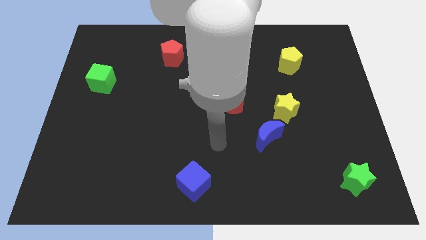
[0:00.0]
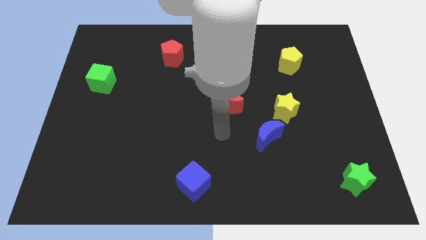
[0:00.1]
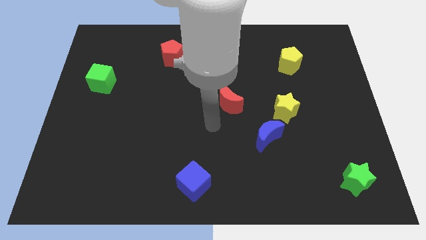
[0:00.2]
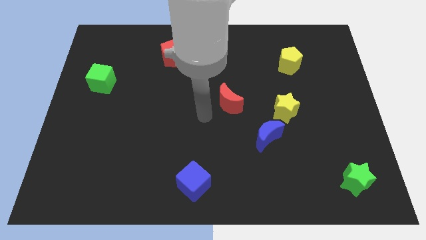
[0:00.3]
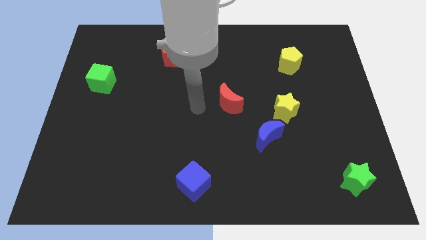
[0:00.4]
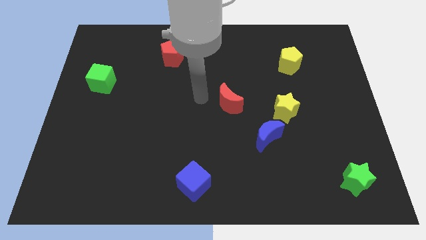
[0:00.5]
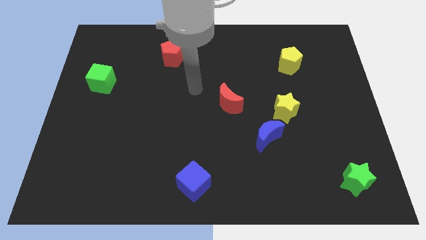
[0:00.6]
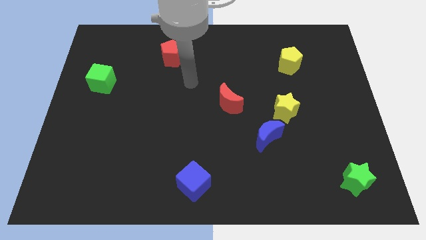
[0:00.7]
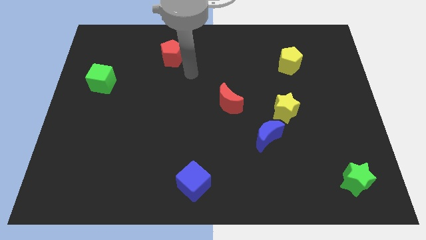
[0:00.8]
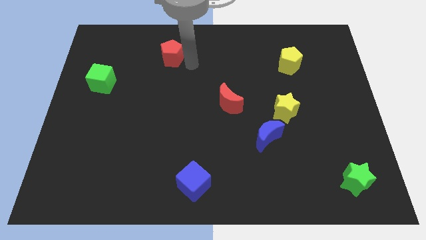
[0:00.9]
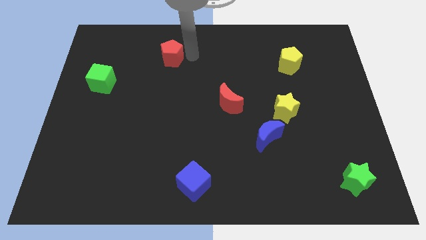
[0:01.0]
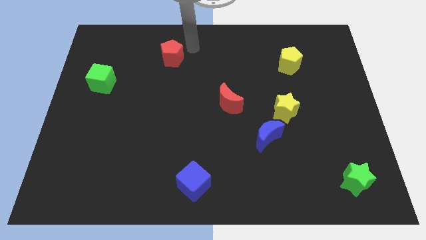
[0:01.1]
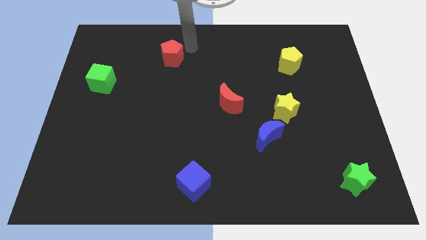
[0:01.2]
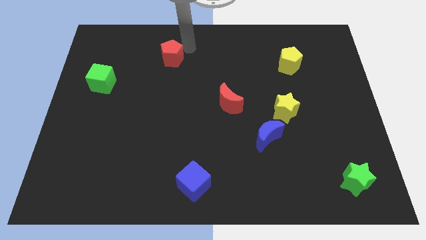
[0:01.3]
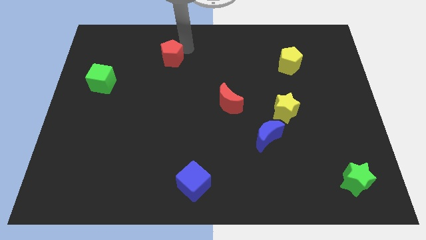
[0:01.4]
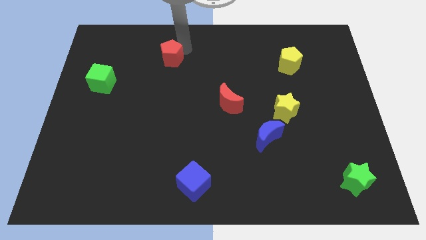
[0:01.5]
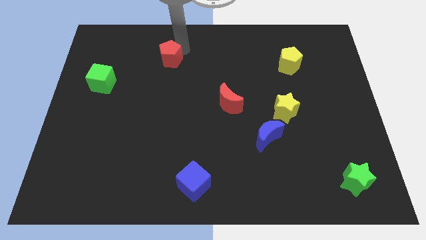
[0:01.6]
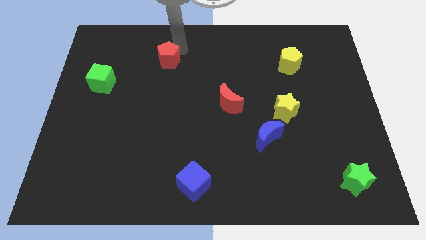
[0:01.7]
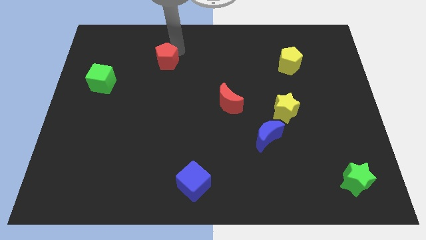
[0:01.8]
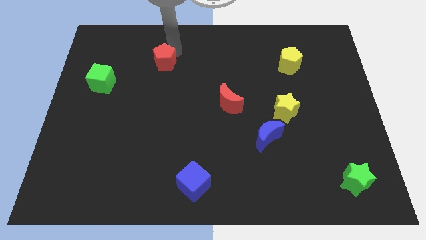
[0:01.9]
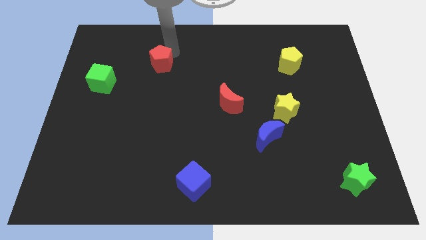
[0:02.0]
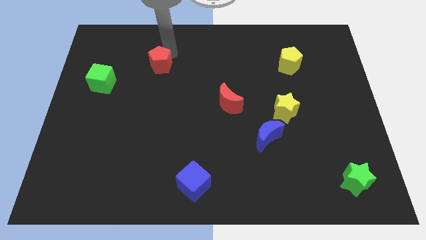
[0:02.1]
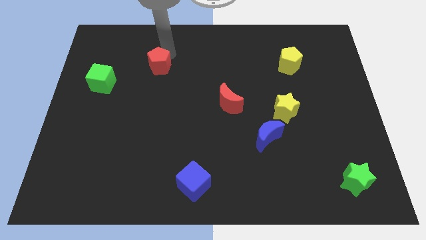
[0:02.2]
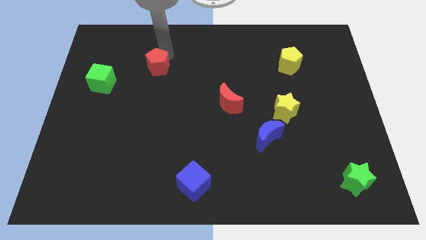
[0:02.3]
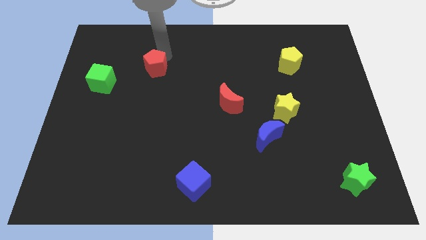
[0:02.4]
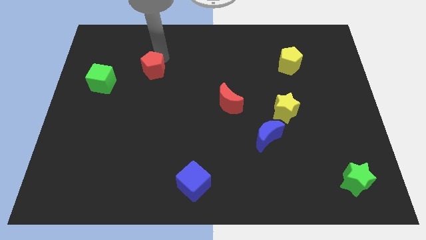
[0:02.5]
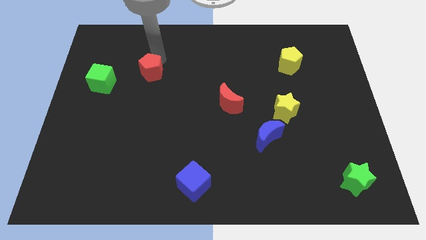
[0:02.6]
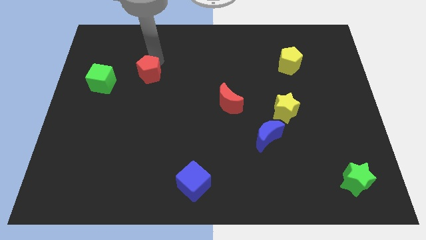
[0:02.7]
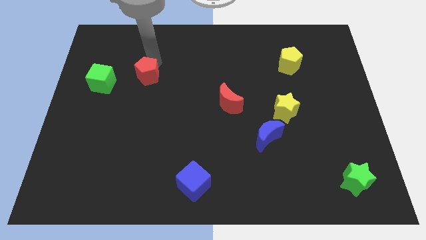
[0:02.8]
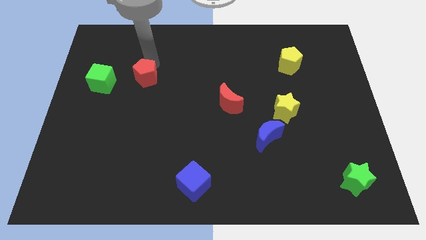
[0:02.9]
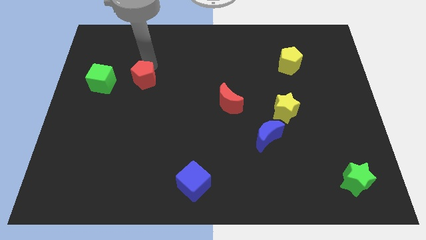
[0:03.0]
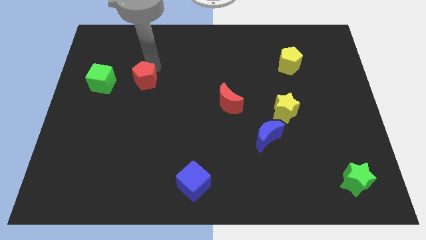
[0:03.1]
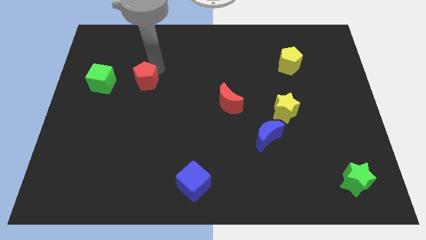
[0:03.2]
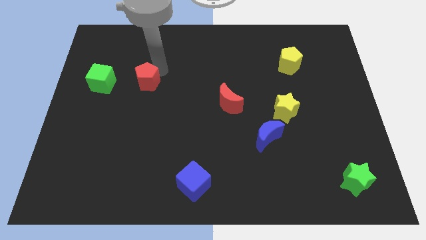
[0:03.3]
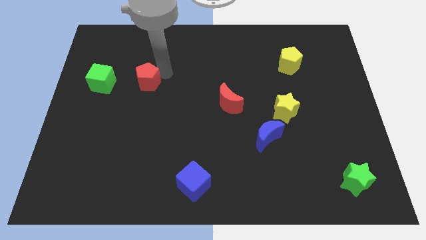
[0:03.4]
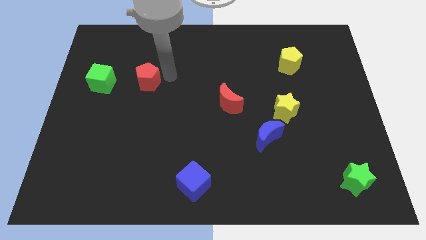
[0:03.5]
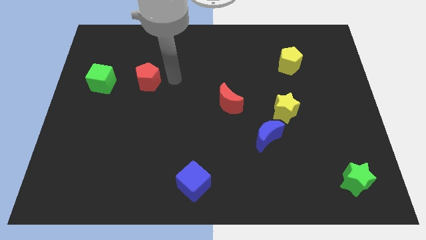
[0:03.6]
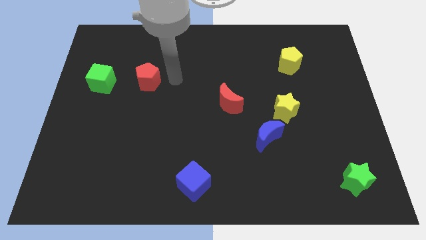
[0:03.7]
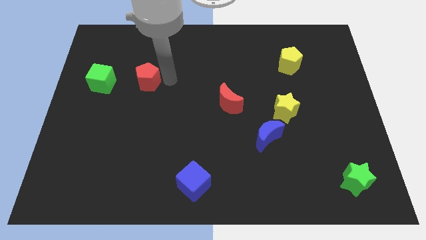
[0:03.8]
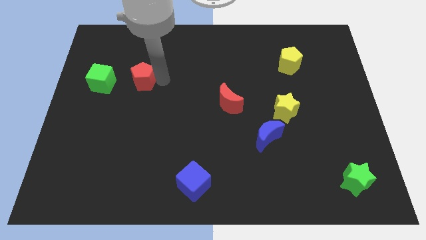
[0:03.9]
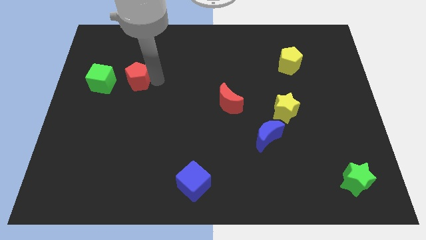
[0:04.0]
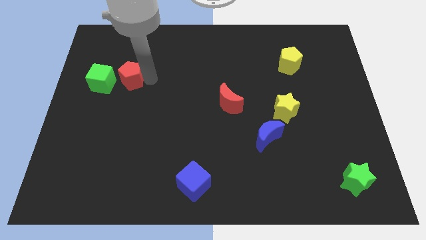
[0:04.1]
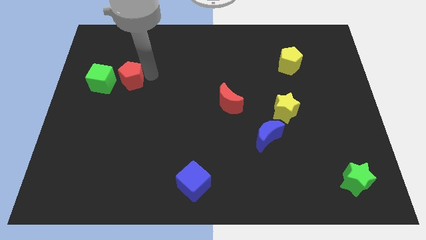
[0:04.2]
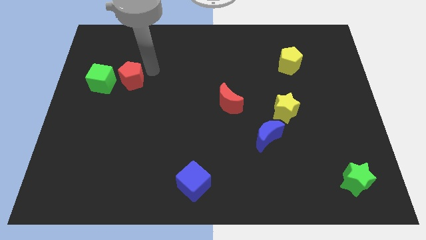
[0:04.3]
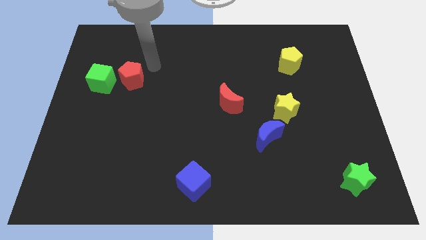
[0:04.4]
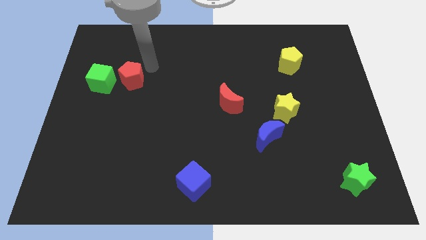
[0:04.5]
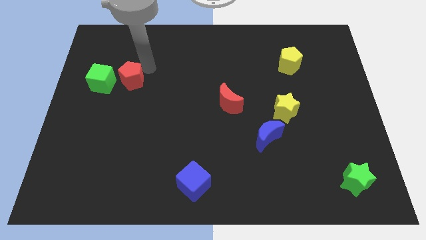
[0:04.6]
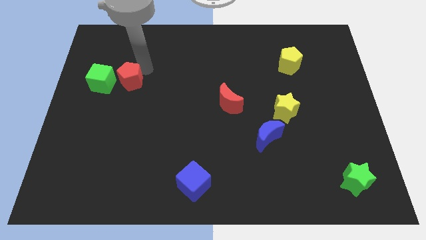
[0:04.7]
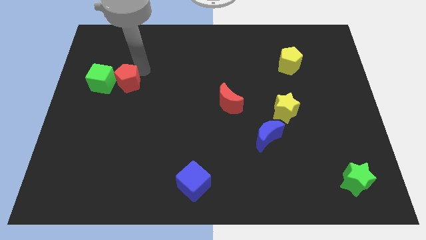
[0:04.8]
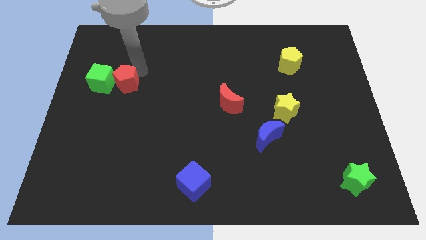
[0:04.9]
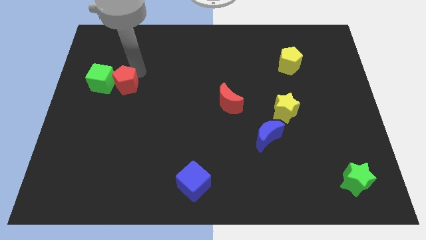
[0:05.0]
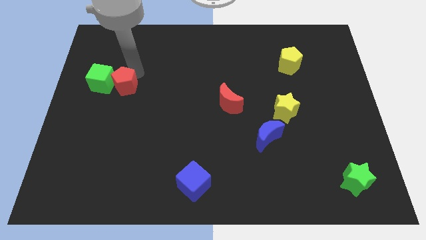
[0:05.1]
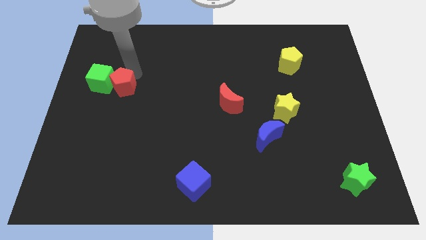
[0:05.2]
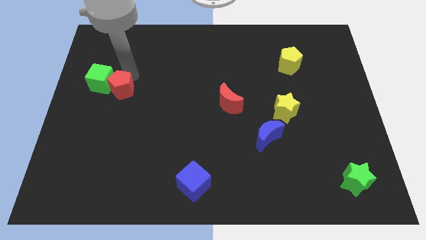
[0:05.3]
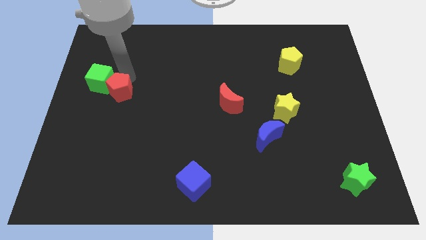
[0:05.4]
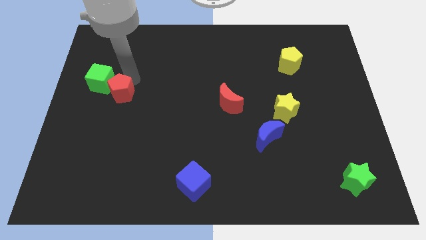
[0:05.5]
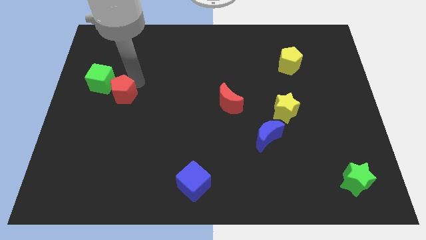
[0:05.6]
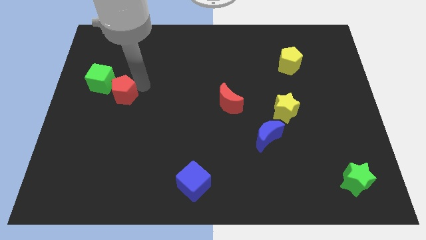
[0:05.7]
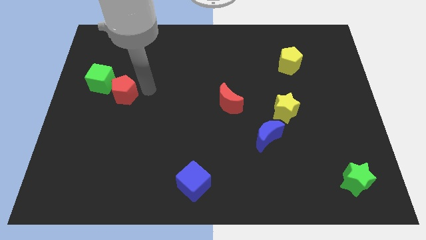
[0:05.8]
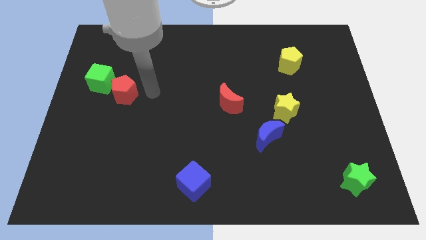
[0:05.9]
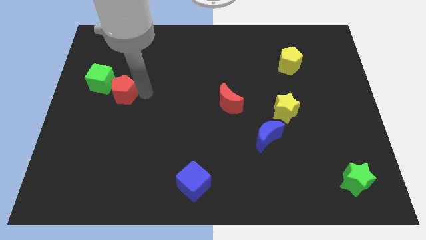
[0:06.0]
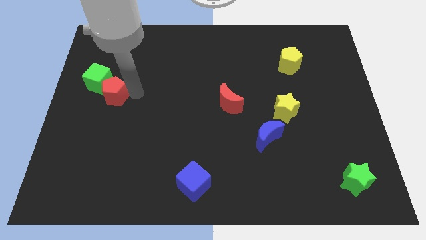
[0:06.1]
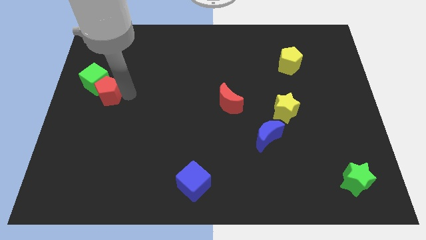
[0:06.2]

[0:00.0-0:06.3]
move the red pentagon to the center left
